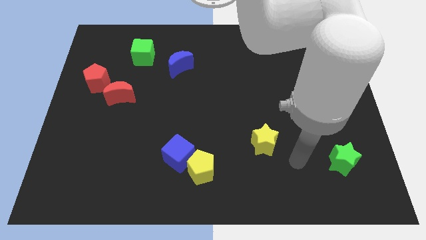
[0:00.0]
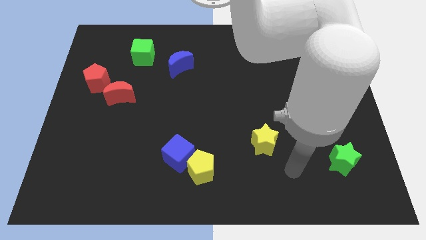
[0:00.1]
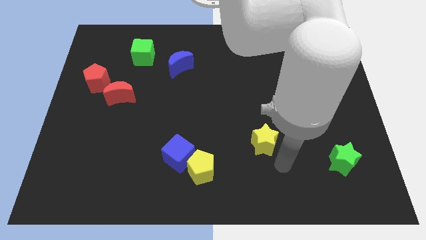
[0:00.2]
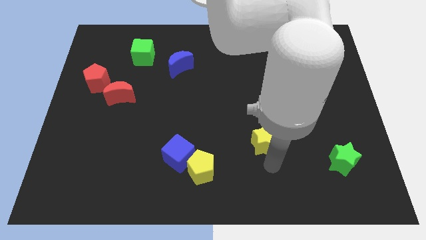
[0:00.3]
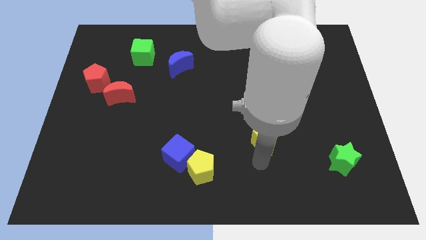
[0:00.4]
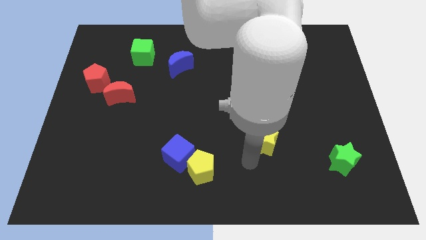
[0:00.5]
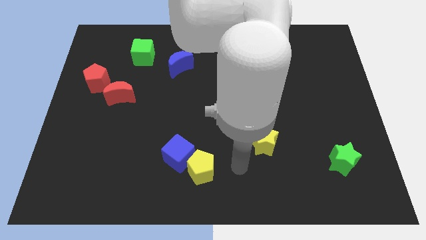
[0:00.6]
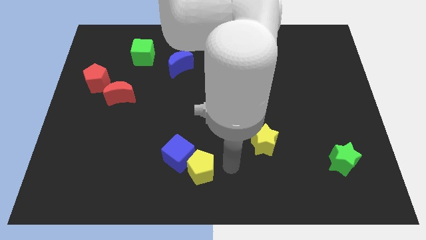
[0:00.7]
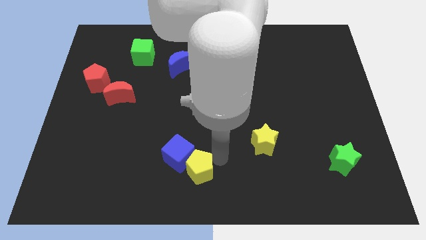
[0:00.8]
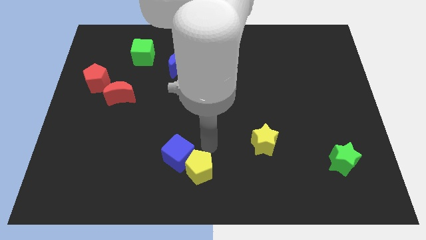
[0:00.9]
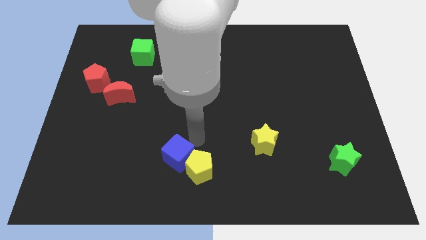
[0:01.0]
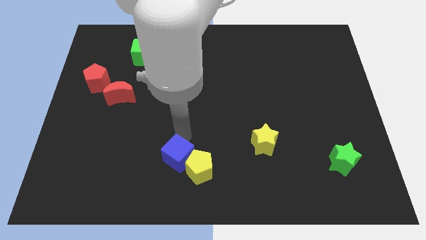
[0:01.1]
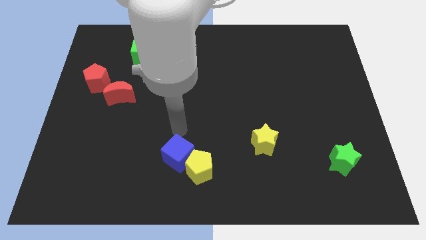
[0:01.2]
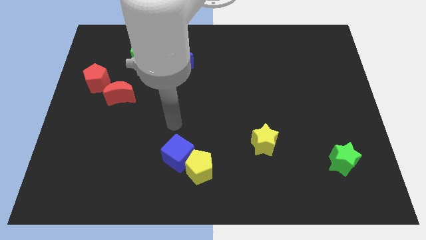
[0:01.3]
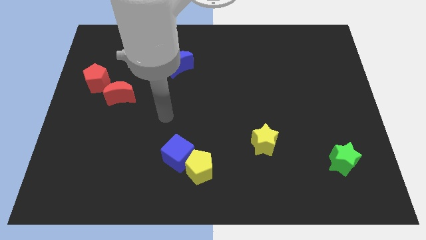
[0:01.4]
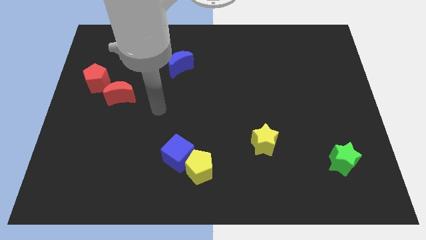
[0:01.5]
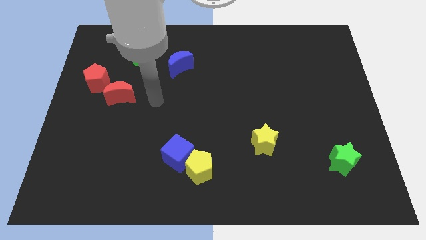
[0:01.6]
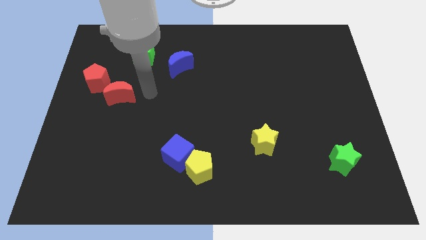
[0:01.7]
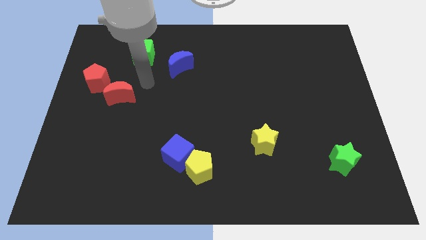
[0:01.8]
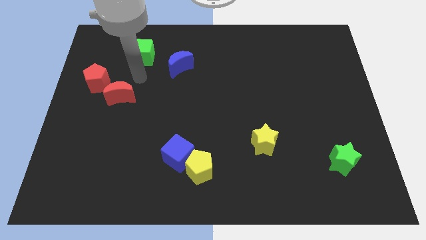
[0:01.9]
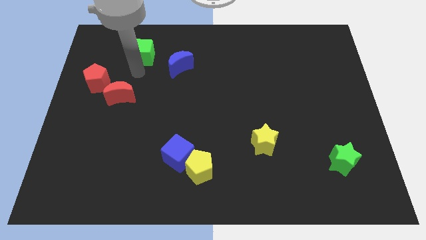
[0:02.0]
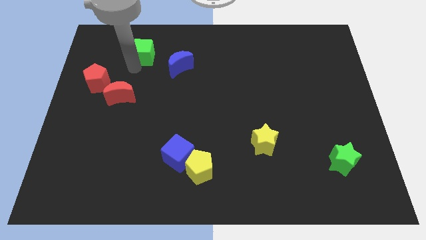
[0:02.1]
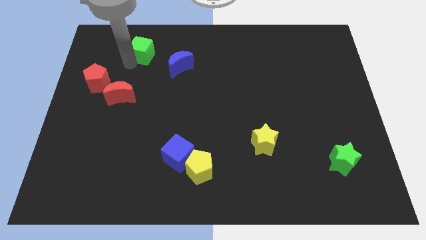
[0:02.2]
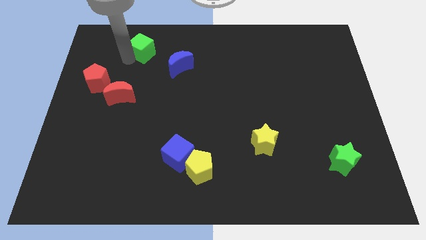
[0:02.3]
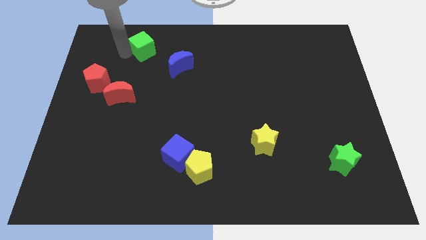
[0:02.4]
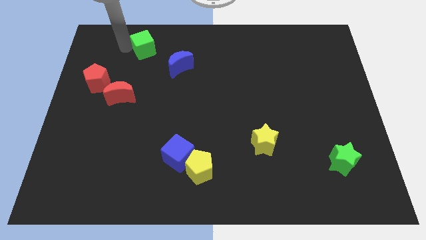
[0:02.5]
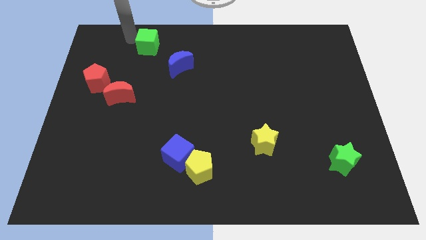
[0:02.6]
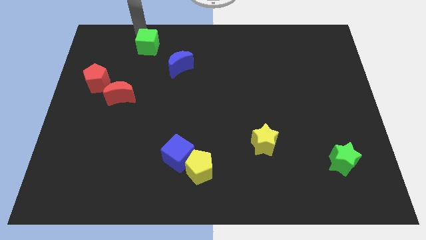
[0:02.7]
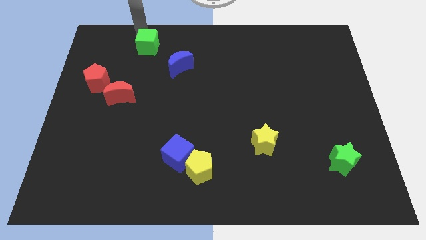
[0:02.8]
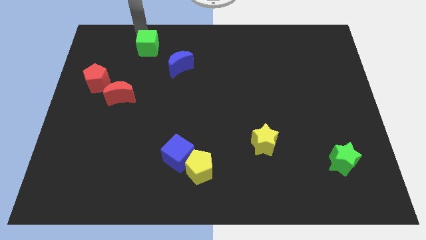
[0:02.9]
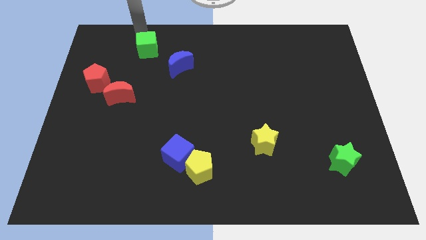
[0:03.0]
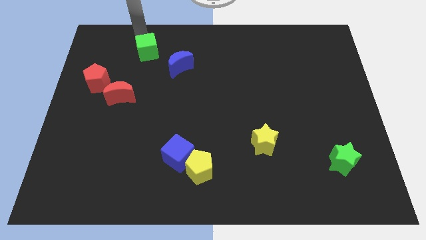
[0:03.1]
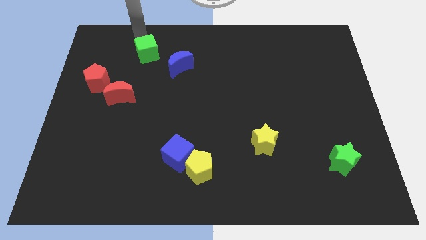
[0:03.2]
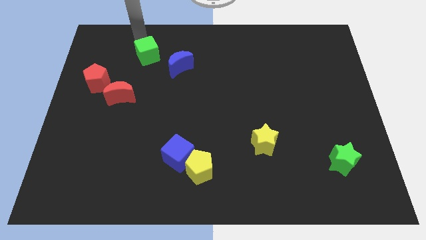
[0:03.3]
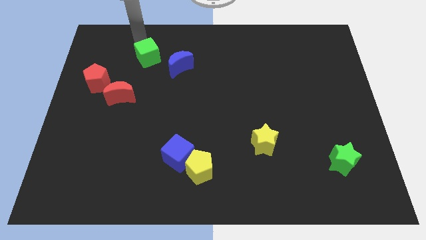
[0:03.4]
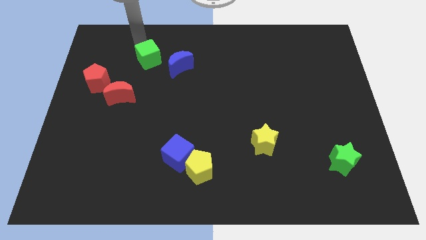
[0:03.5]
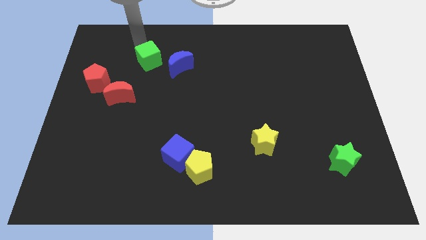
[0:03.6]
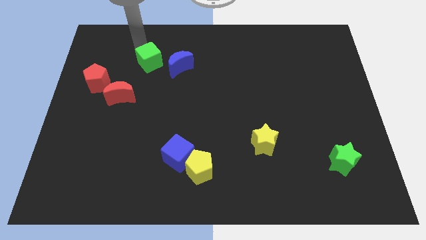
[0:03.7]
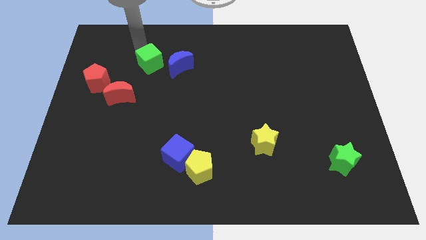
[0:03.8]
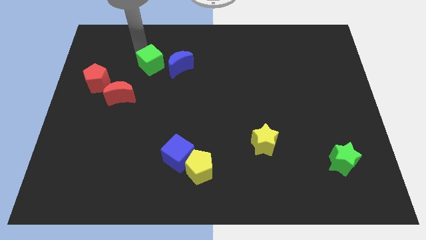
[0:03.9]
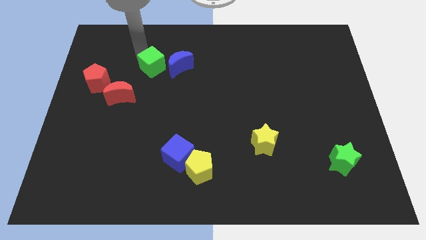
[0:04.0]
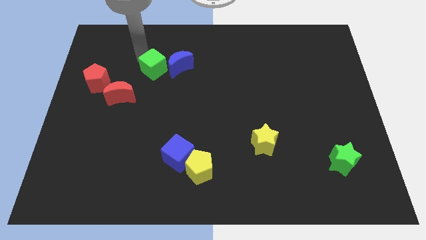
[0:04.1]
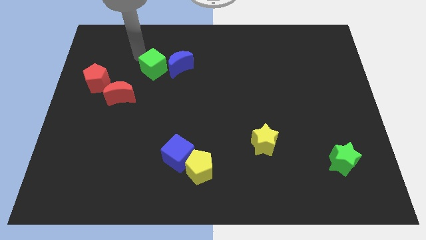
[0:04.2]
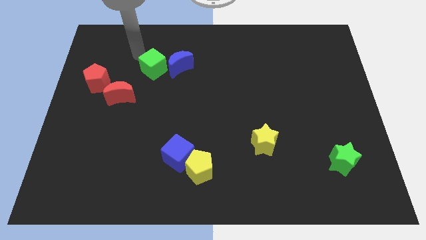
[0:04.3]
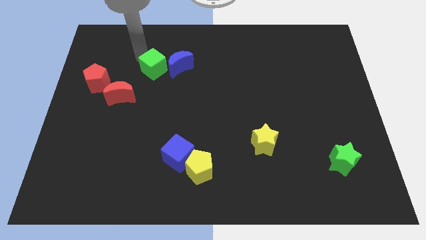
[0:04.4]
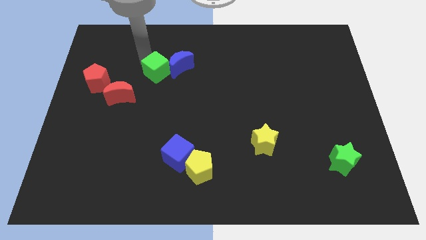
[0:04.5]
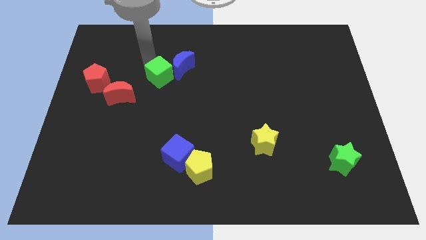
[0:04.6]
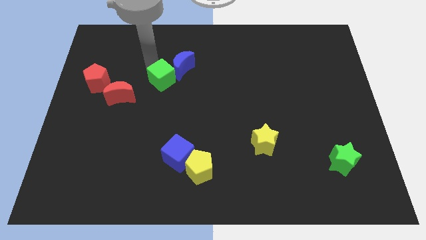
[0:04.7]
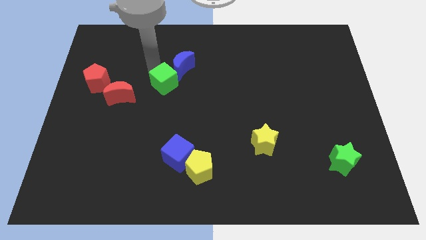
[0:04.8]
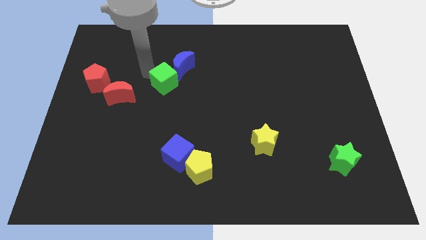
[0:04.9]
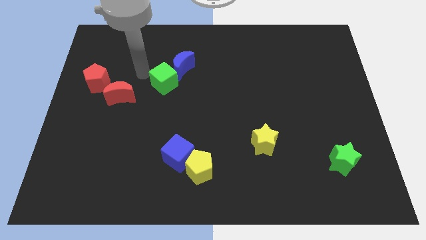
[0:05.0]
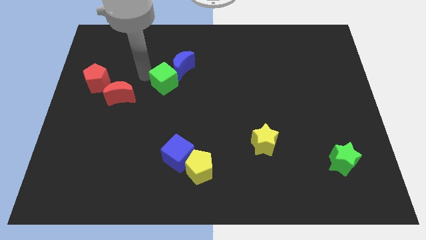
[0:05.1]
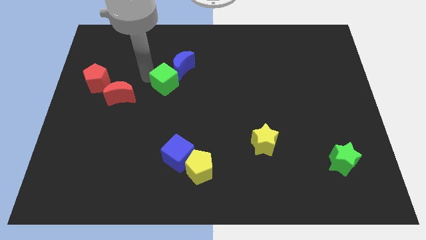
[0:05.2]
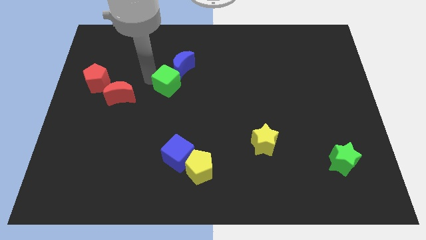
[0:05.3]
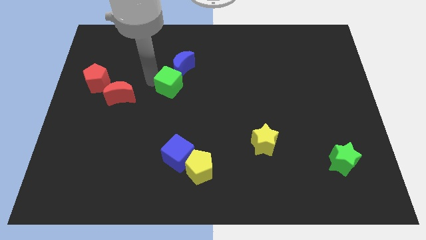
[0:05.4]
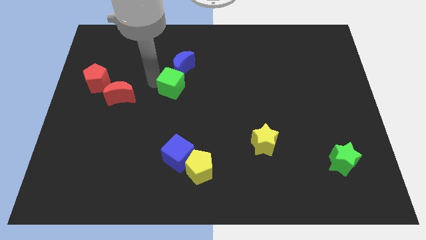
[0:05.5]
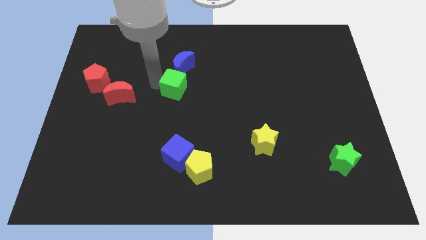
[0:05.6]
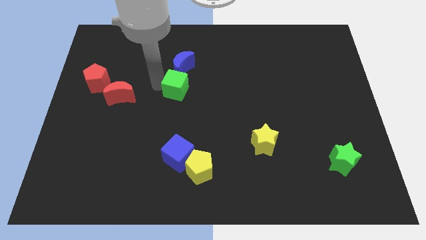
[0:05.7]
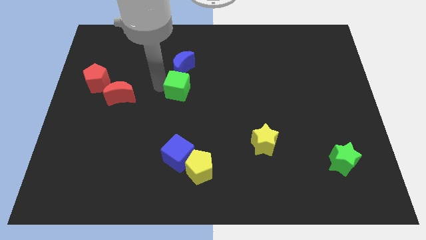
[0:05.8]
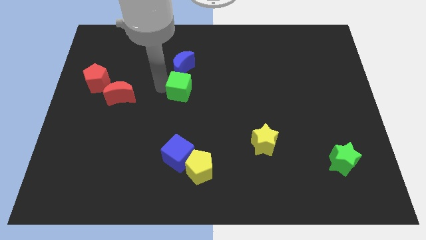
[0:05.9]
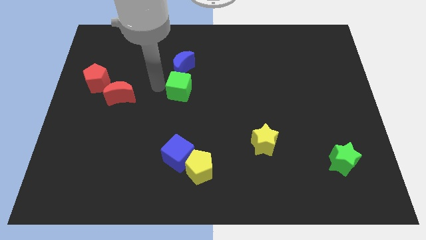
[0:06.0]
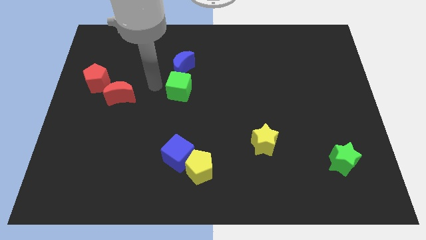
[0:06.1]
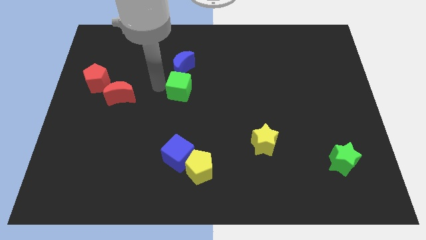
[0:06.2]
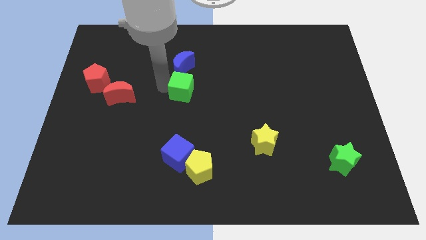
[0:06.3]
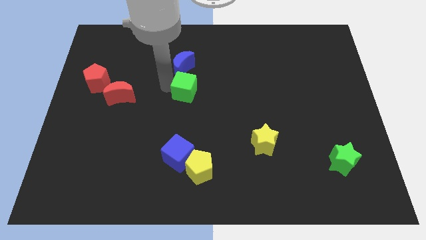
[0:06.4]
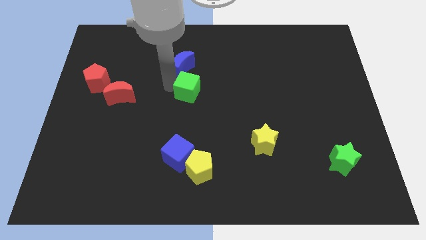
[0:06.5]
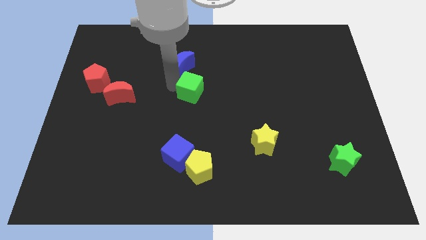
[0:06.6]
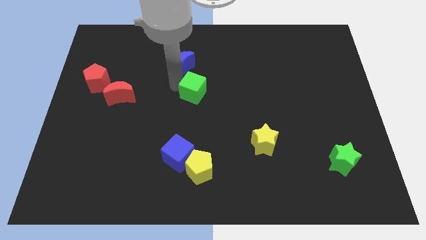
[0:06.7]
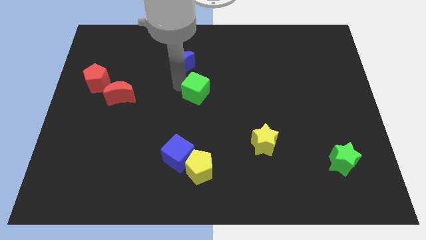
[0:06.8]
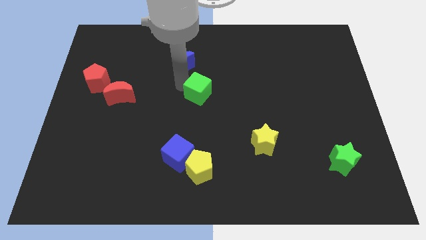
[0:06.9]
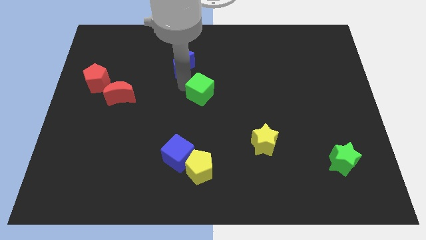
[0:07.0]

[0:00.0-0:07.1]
move the green cube down and right diagonally

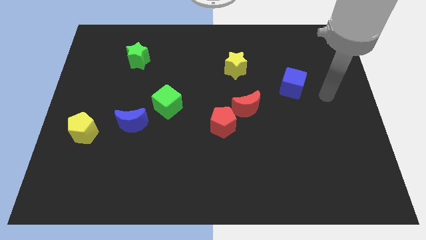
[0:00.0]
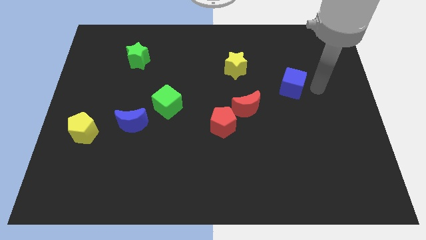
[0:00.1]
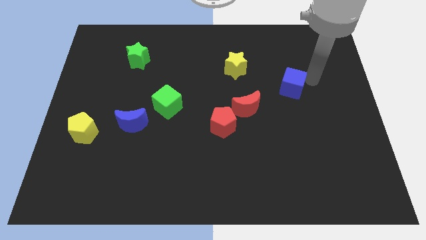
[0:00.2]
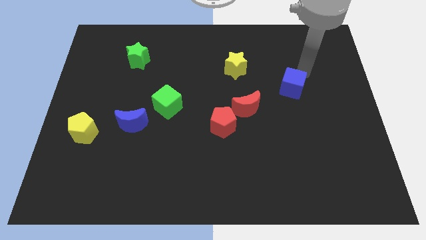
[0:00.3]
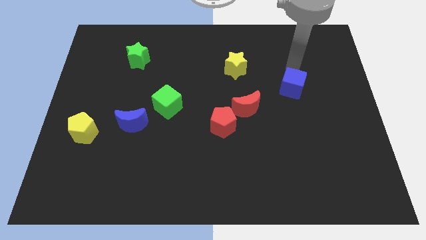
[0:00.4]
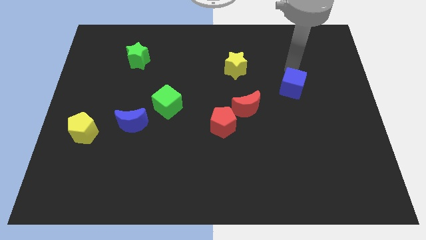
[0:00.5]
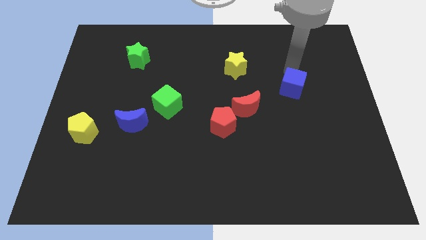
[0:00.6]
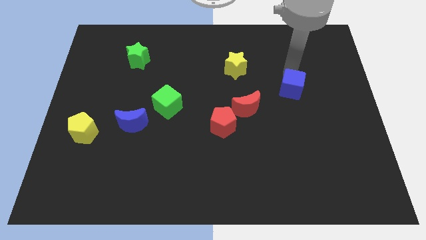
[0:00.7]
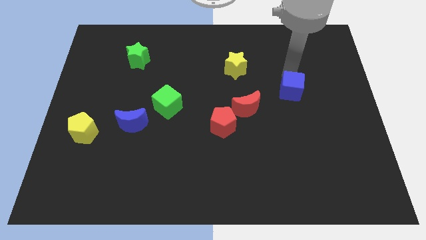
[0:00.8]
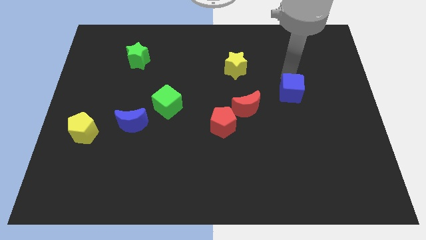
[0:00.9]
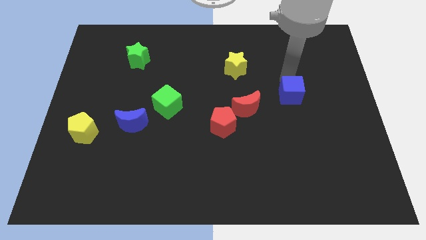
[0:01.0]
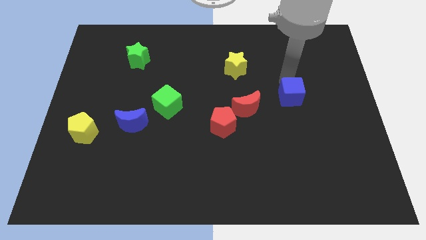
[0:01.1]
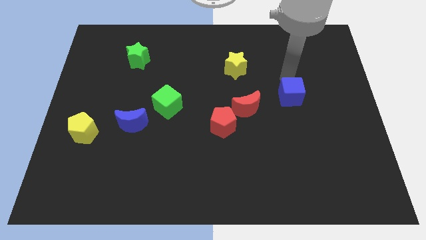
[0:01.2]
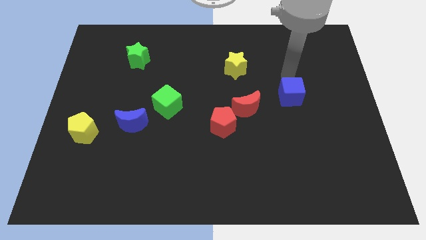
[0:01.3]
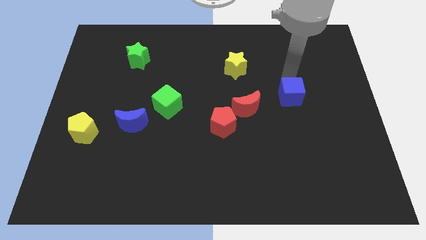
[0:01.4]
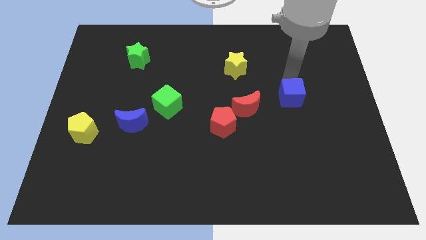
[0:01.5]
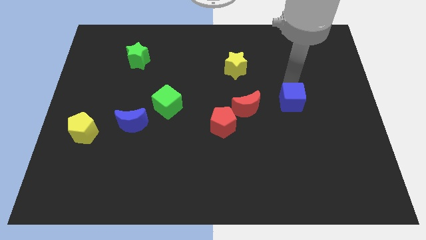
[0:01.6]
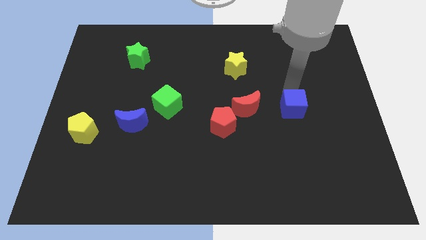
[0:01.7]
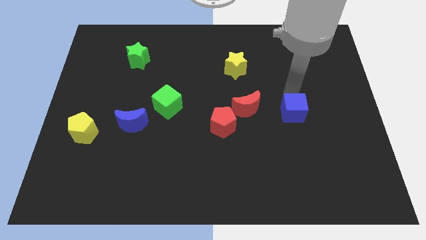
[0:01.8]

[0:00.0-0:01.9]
slide the blue cube down a bit
